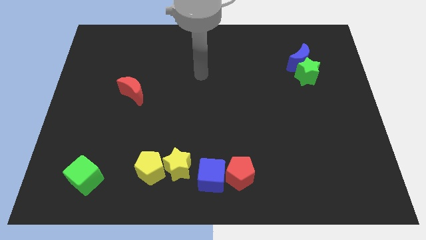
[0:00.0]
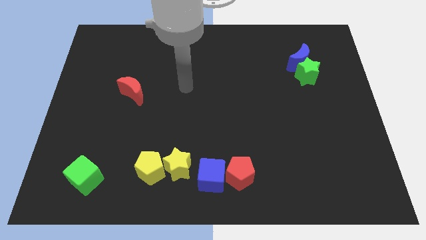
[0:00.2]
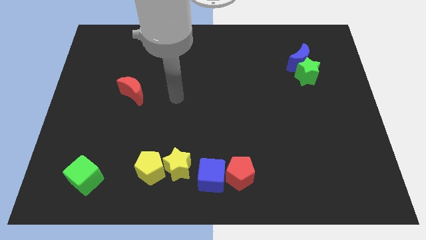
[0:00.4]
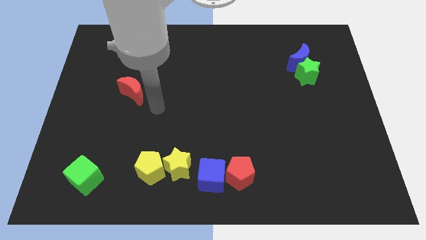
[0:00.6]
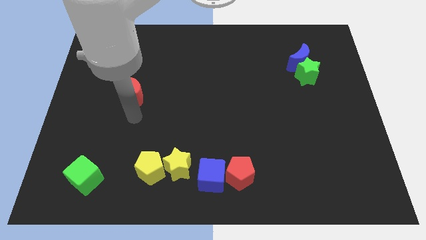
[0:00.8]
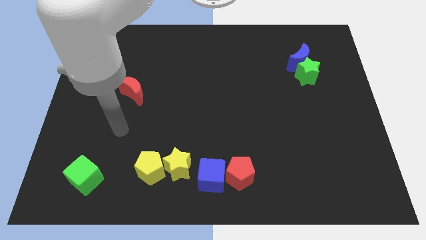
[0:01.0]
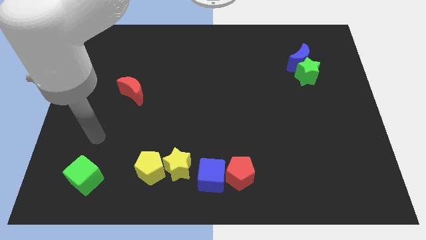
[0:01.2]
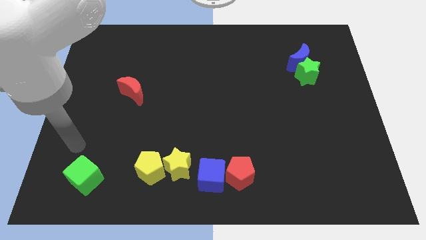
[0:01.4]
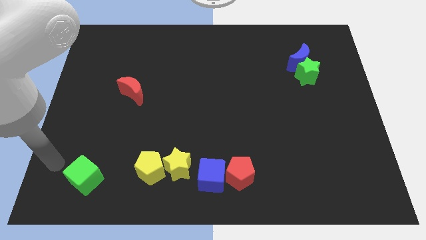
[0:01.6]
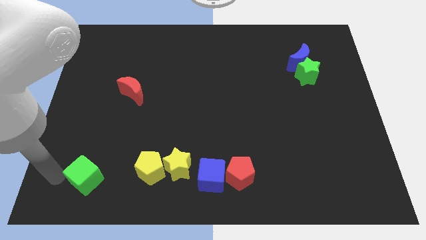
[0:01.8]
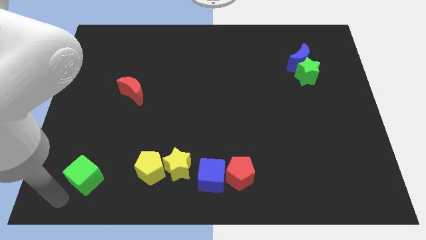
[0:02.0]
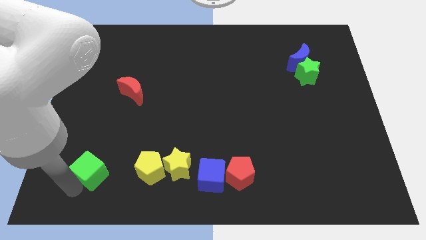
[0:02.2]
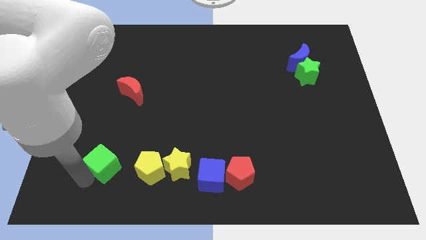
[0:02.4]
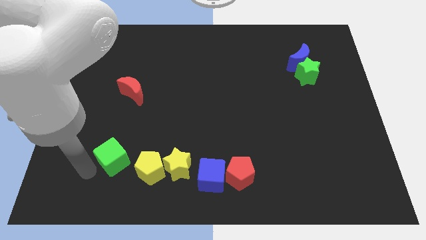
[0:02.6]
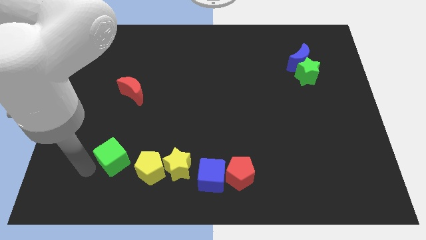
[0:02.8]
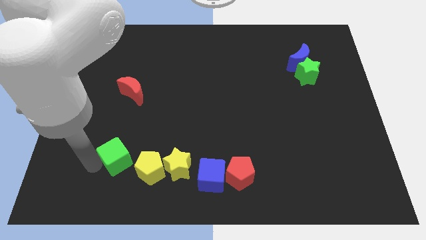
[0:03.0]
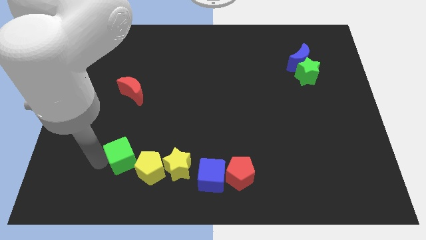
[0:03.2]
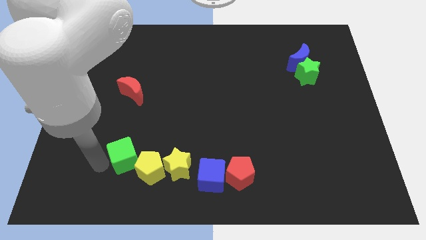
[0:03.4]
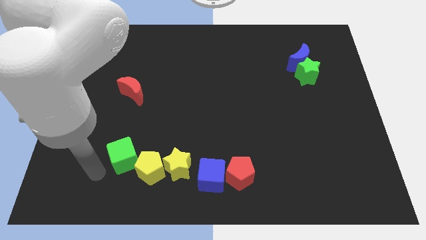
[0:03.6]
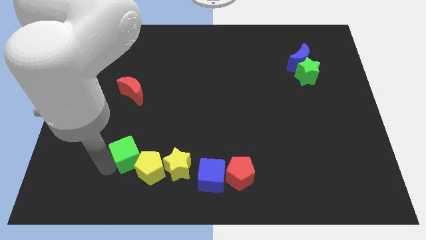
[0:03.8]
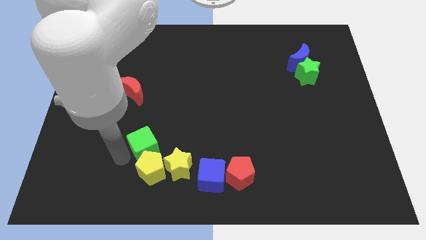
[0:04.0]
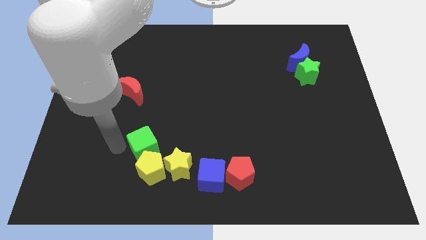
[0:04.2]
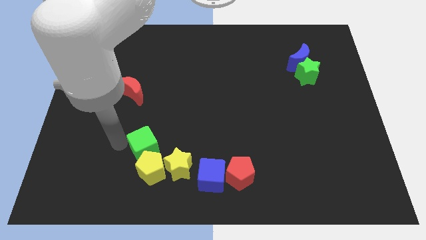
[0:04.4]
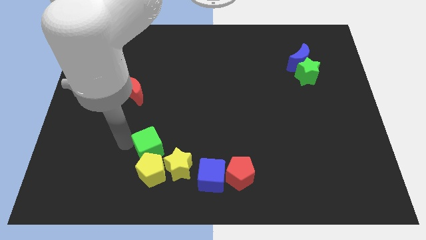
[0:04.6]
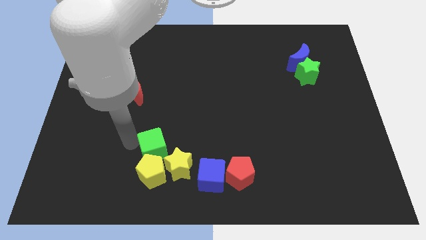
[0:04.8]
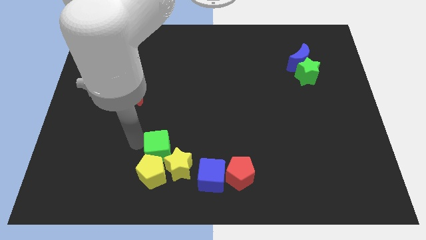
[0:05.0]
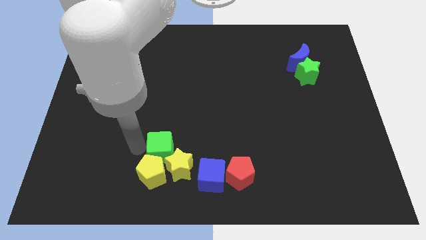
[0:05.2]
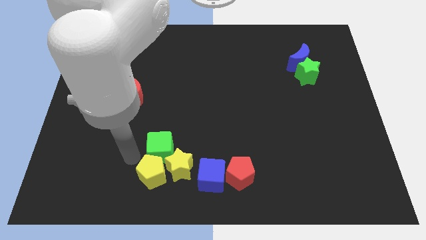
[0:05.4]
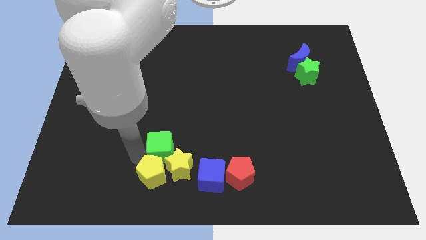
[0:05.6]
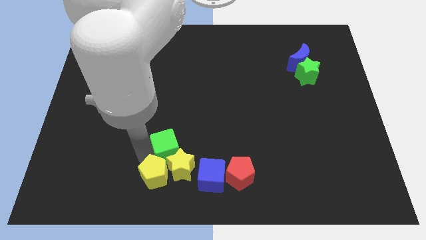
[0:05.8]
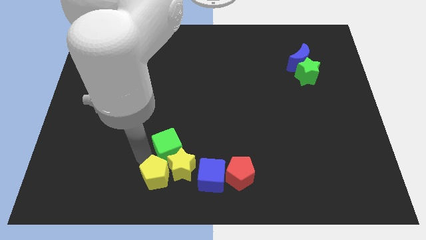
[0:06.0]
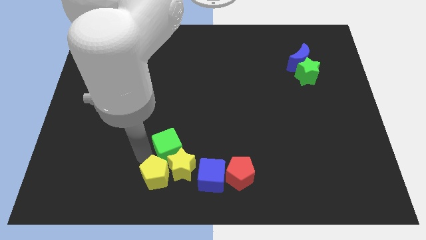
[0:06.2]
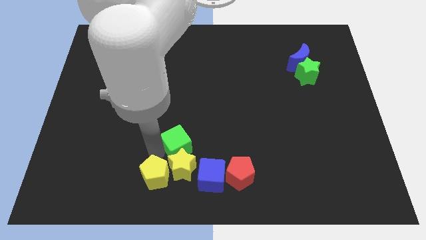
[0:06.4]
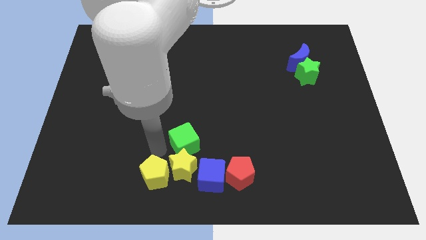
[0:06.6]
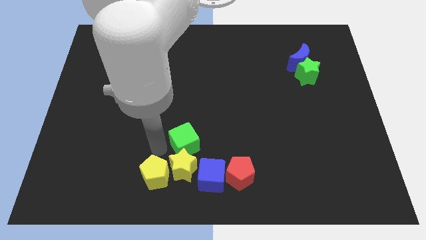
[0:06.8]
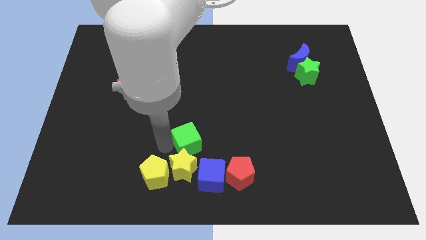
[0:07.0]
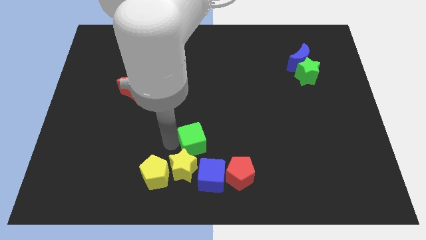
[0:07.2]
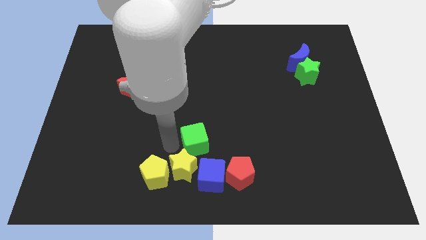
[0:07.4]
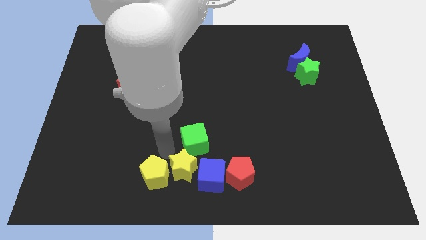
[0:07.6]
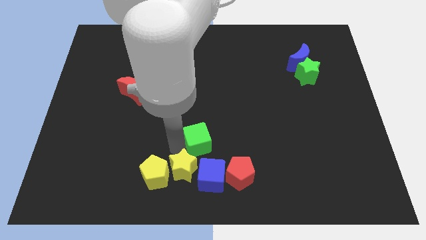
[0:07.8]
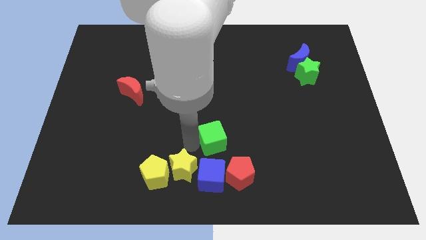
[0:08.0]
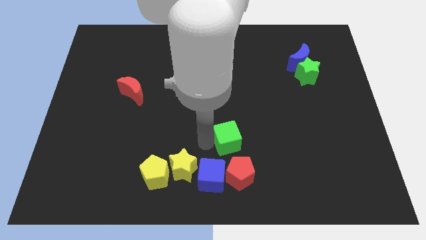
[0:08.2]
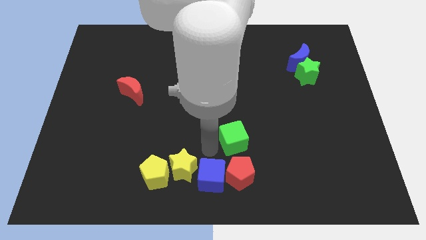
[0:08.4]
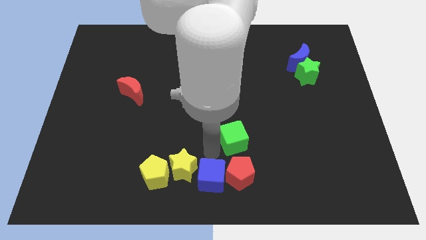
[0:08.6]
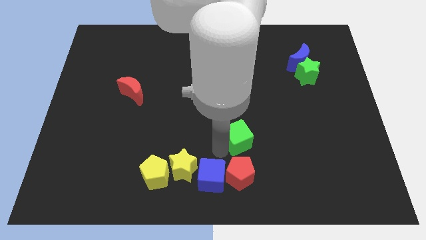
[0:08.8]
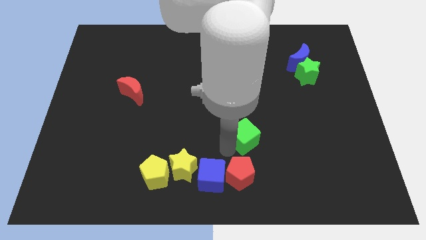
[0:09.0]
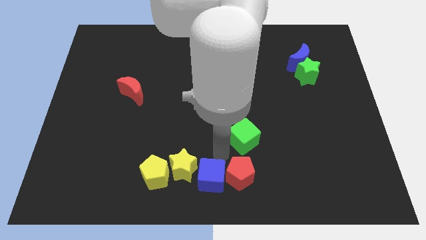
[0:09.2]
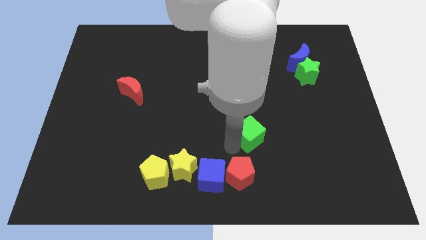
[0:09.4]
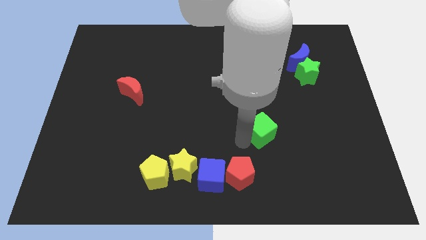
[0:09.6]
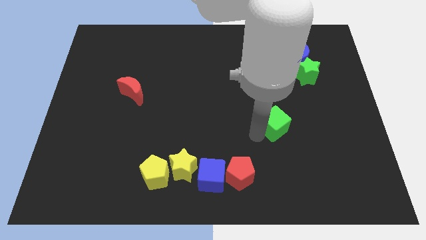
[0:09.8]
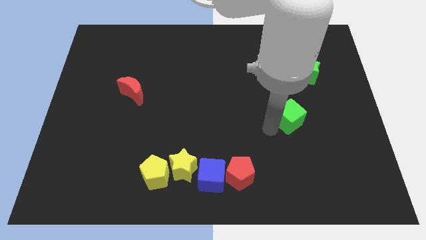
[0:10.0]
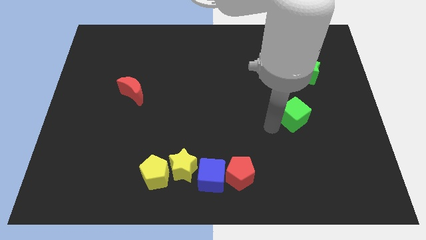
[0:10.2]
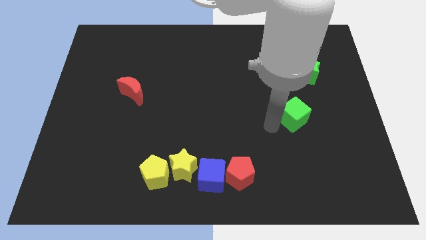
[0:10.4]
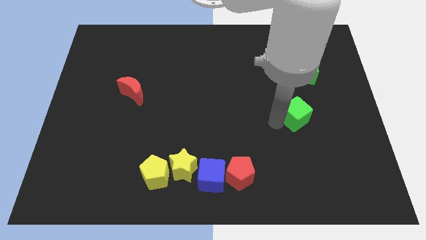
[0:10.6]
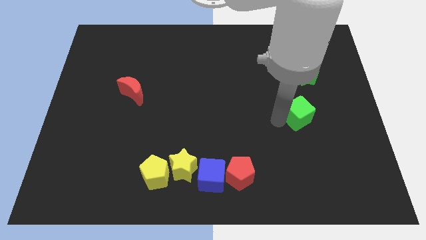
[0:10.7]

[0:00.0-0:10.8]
move the green cube to the bottom side of the green star

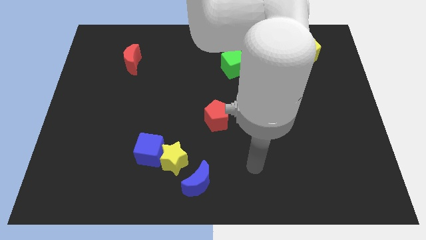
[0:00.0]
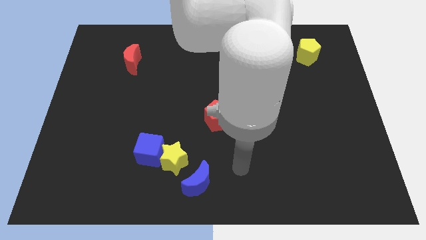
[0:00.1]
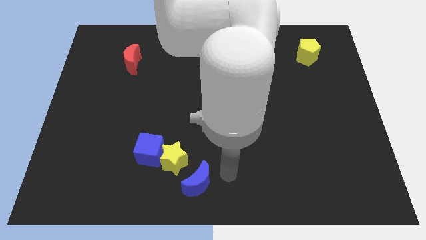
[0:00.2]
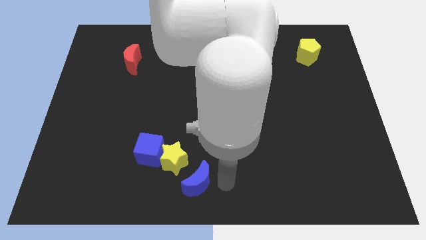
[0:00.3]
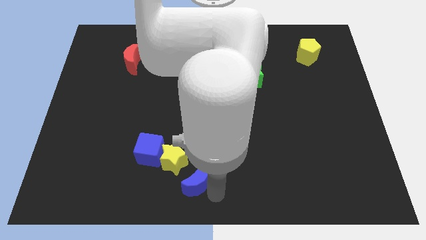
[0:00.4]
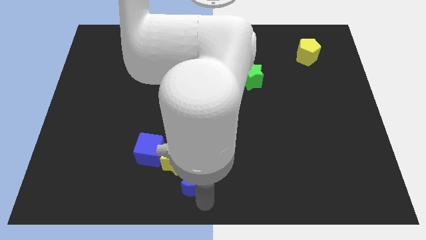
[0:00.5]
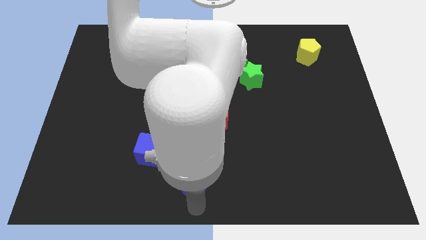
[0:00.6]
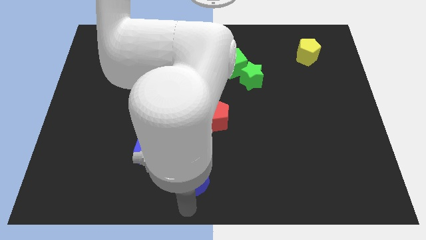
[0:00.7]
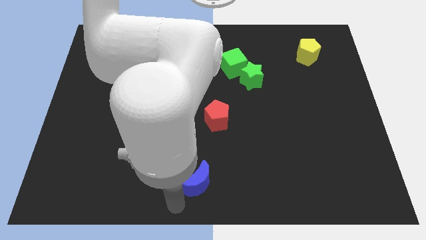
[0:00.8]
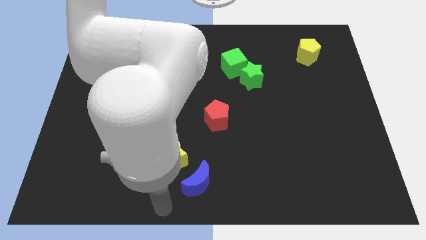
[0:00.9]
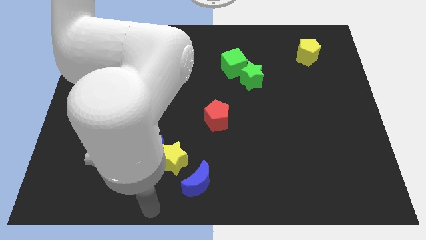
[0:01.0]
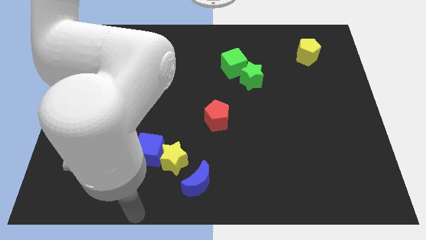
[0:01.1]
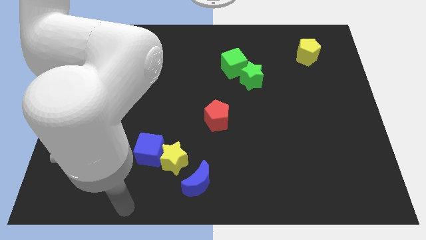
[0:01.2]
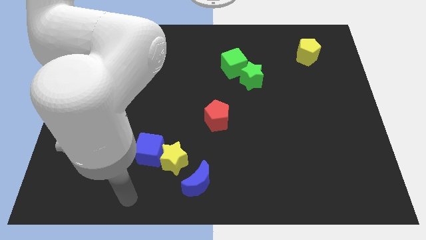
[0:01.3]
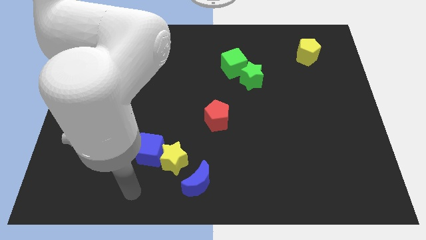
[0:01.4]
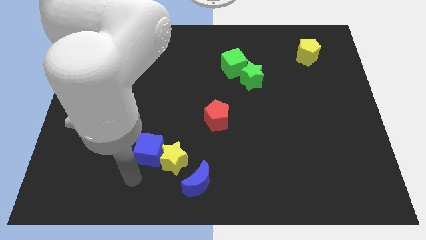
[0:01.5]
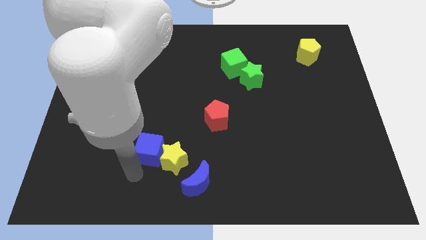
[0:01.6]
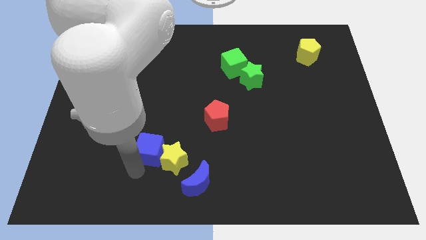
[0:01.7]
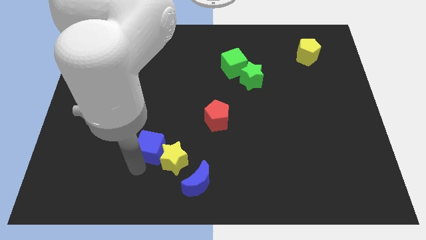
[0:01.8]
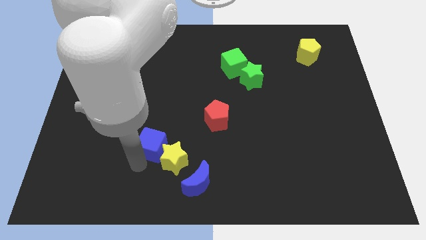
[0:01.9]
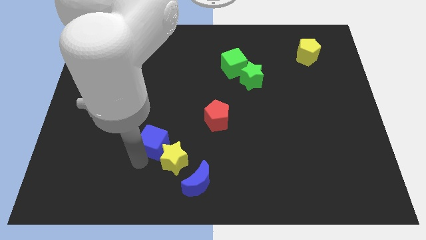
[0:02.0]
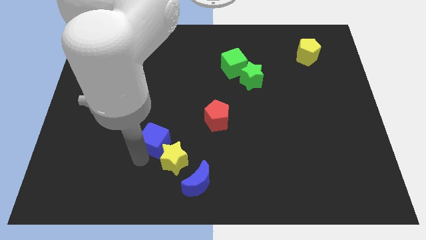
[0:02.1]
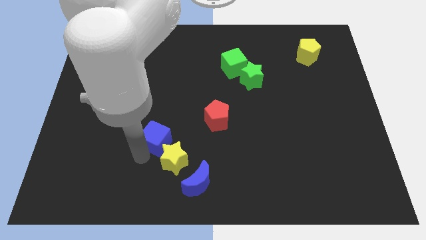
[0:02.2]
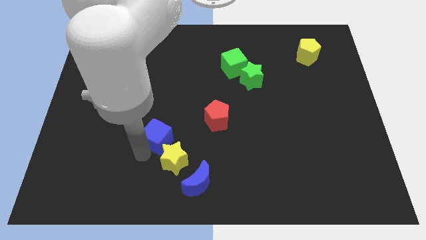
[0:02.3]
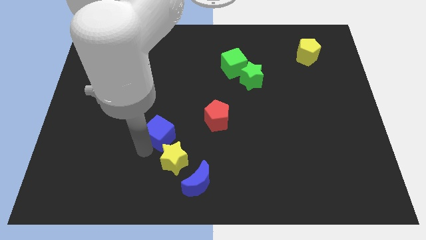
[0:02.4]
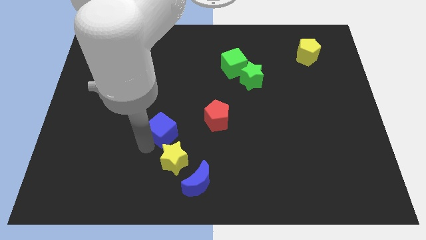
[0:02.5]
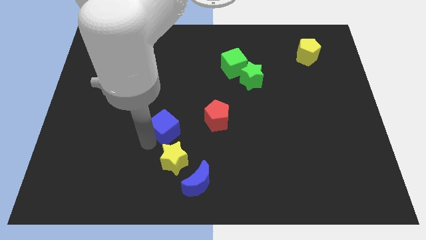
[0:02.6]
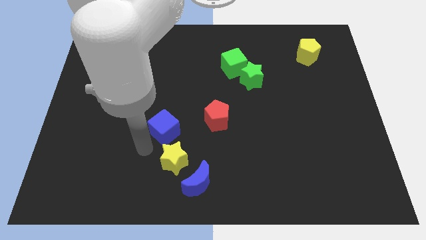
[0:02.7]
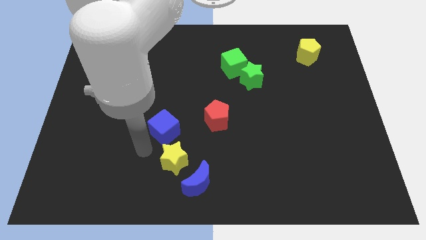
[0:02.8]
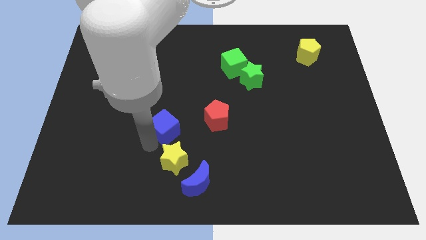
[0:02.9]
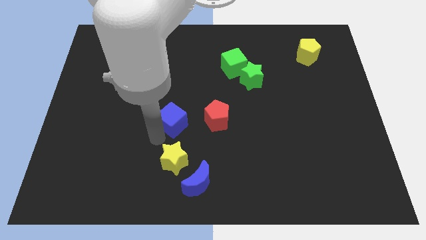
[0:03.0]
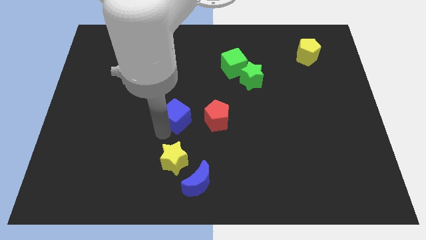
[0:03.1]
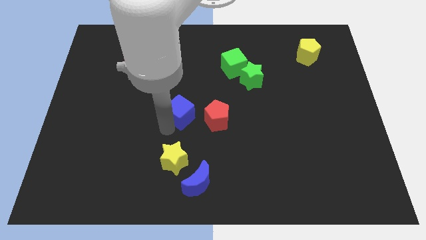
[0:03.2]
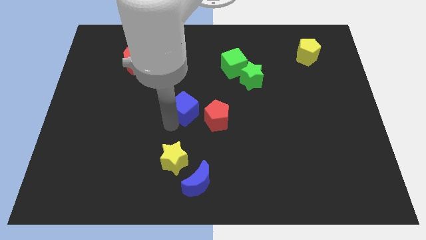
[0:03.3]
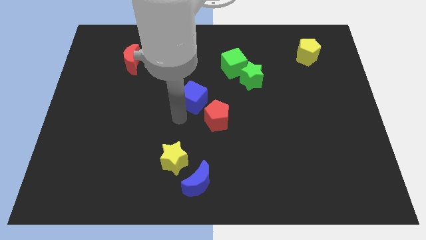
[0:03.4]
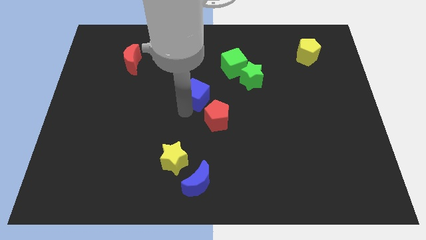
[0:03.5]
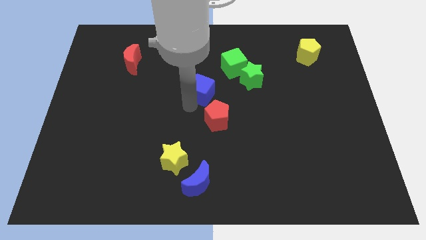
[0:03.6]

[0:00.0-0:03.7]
move the blue cube just left of the green star
